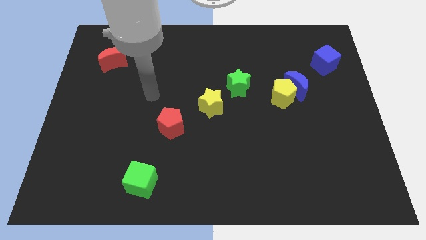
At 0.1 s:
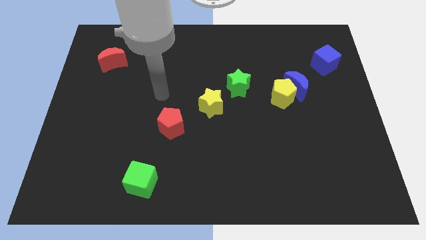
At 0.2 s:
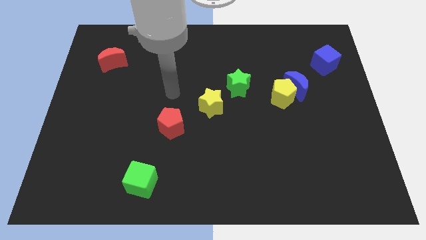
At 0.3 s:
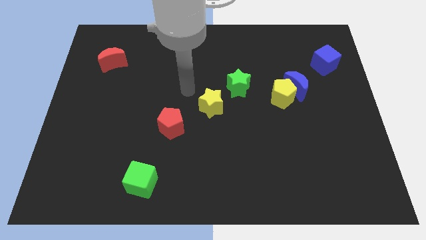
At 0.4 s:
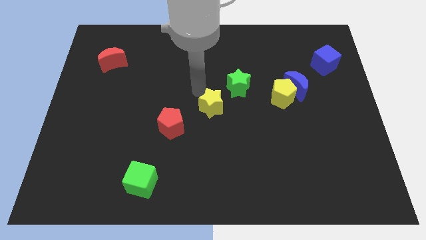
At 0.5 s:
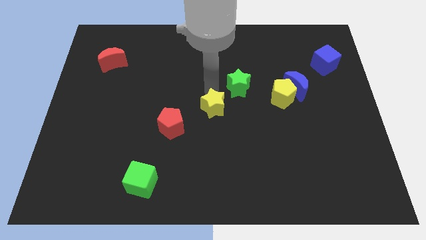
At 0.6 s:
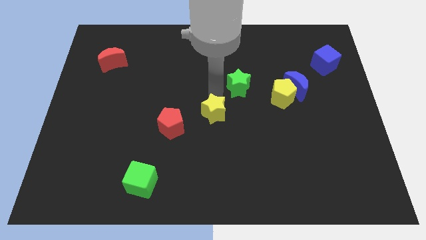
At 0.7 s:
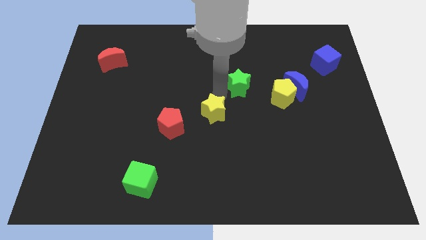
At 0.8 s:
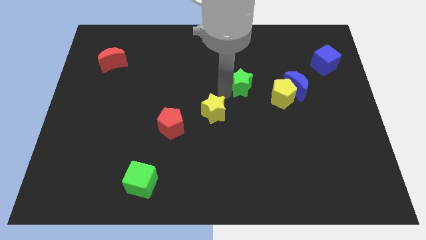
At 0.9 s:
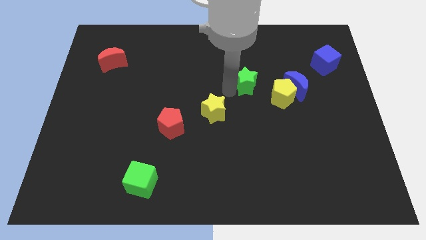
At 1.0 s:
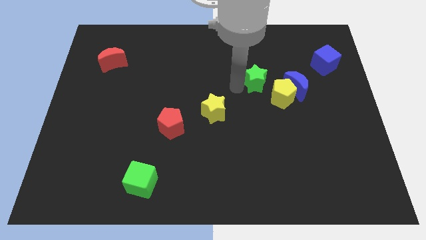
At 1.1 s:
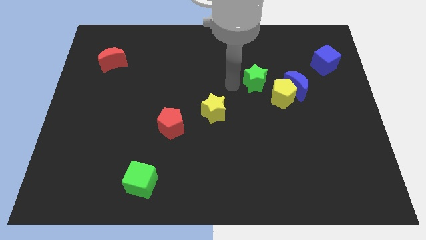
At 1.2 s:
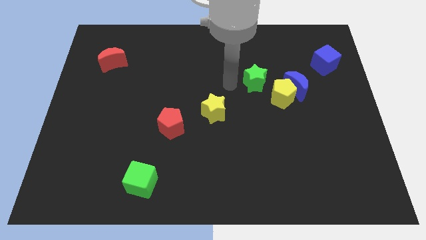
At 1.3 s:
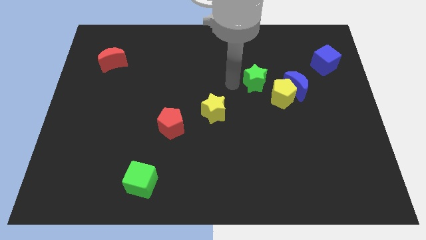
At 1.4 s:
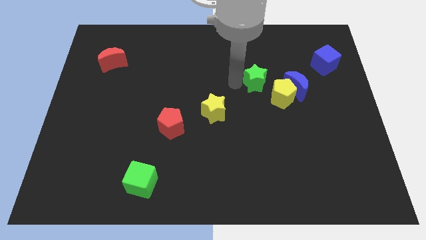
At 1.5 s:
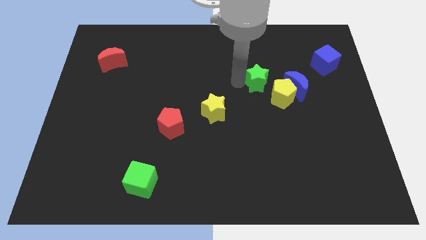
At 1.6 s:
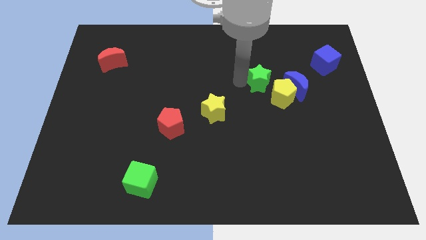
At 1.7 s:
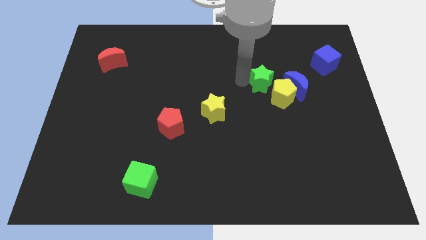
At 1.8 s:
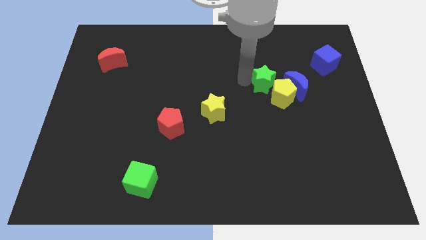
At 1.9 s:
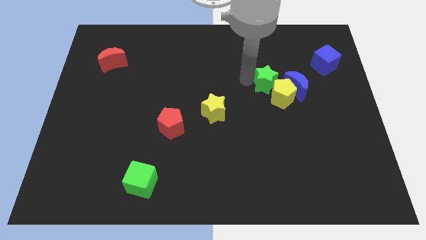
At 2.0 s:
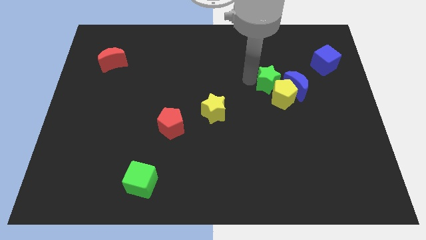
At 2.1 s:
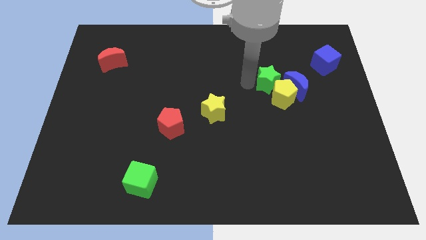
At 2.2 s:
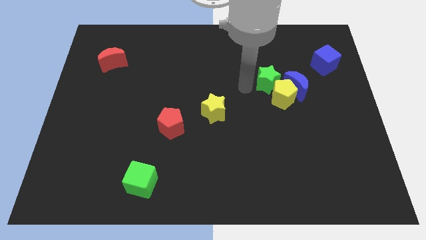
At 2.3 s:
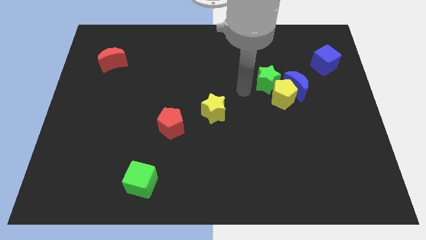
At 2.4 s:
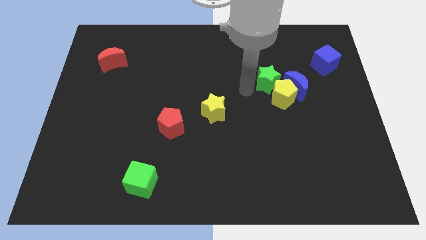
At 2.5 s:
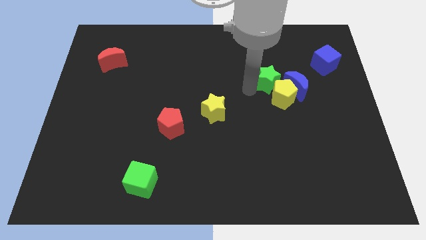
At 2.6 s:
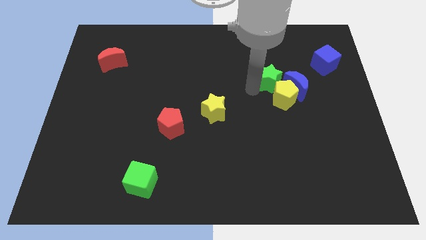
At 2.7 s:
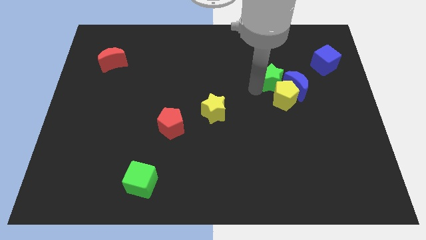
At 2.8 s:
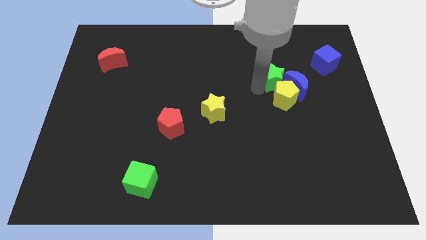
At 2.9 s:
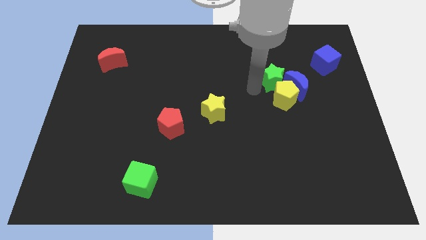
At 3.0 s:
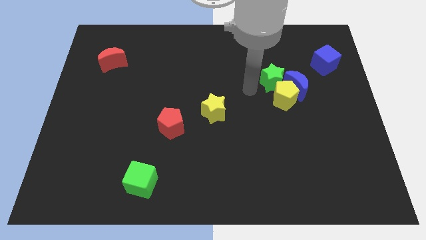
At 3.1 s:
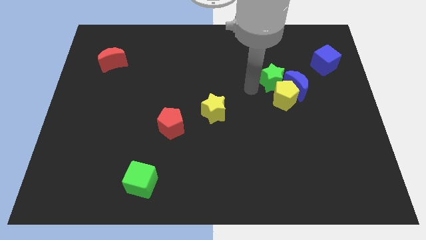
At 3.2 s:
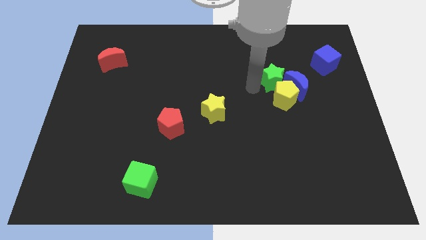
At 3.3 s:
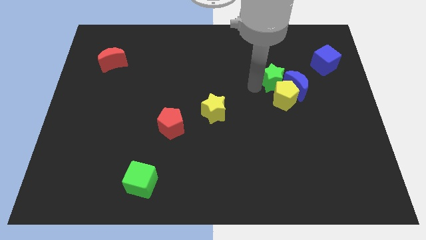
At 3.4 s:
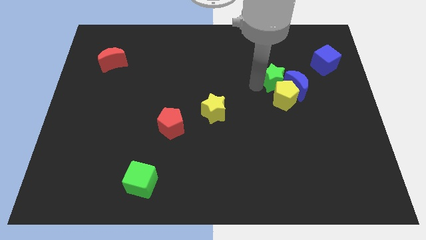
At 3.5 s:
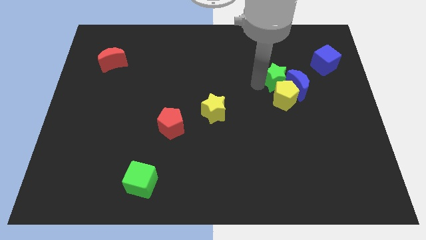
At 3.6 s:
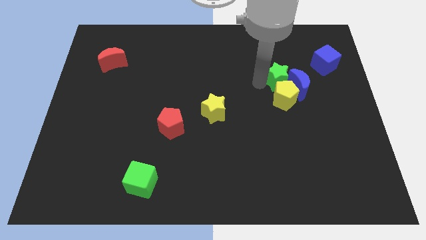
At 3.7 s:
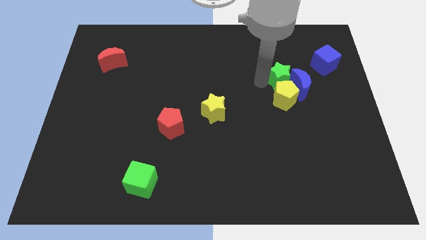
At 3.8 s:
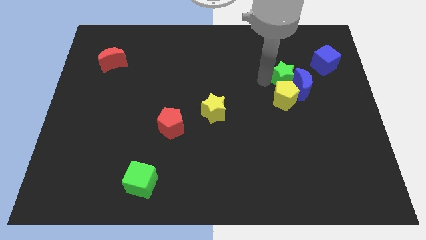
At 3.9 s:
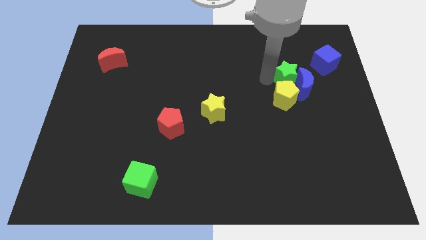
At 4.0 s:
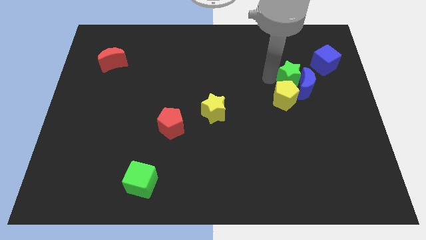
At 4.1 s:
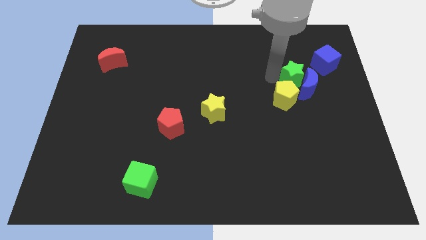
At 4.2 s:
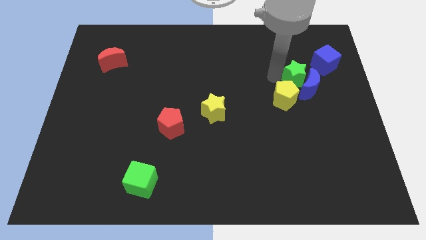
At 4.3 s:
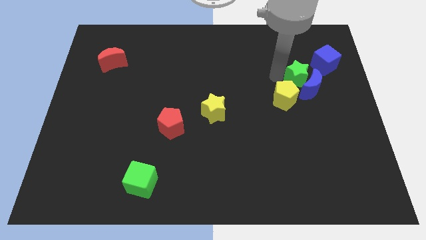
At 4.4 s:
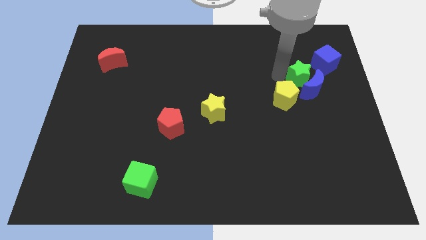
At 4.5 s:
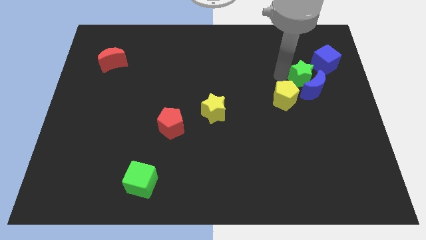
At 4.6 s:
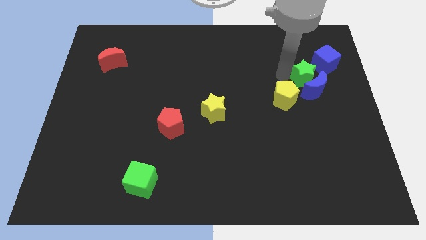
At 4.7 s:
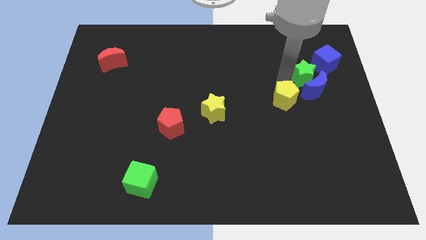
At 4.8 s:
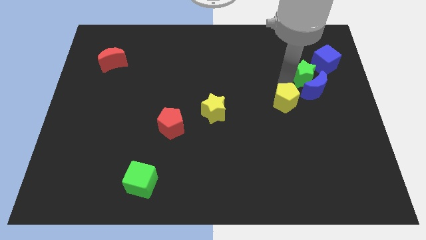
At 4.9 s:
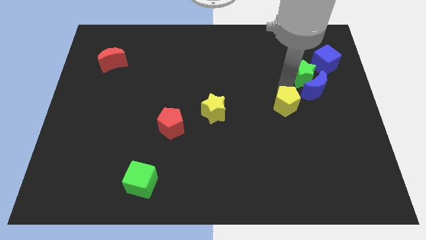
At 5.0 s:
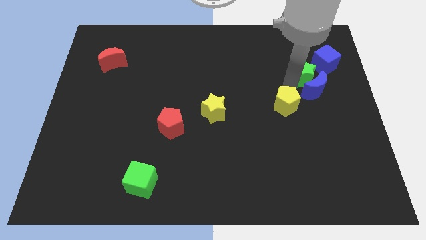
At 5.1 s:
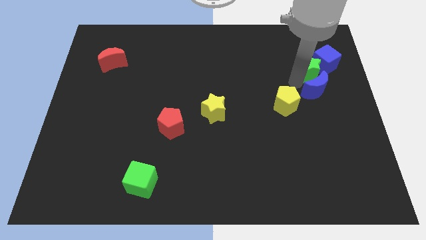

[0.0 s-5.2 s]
push the green star to the blue cube

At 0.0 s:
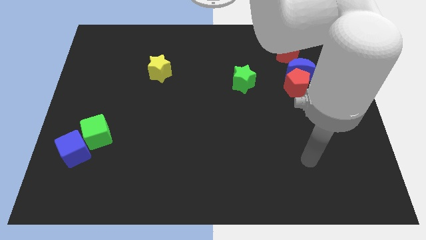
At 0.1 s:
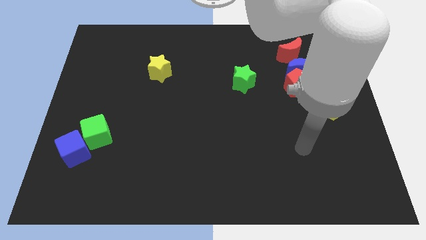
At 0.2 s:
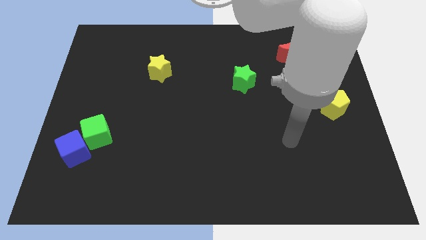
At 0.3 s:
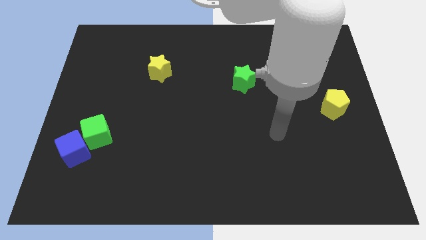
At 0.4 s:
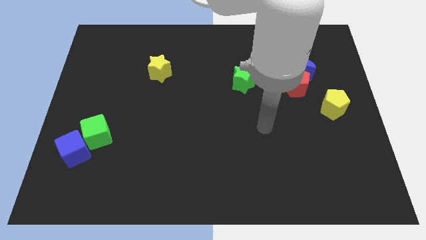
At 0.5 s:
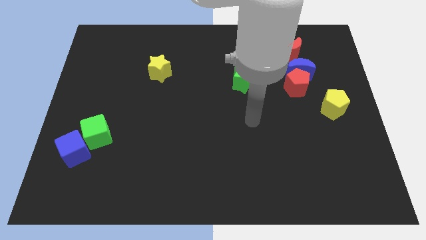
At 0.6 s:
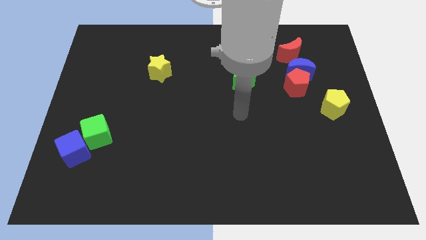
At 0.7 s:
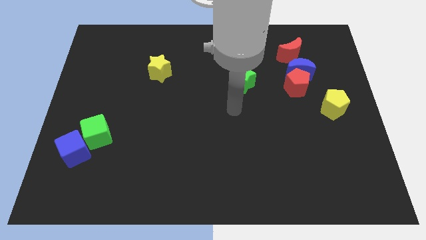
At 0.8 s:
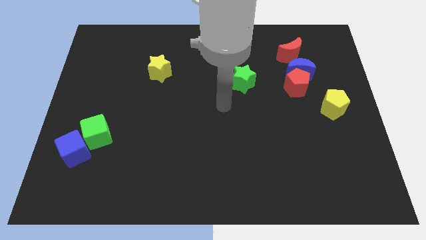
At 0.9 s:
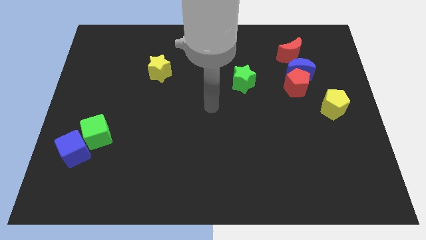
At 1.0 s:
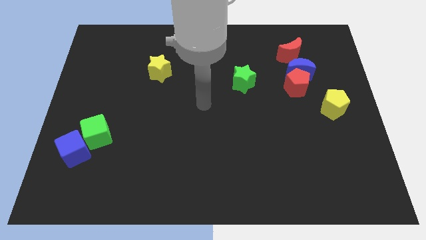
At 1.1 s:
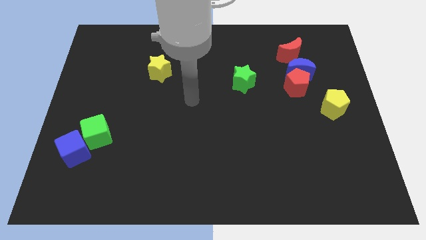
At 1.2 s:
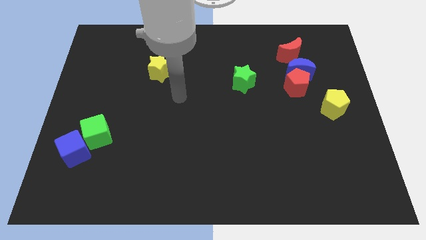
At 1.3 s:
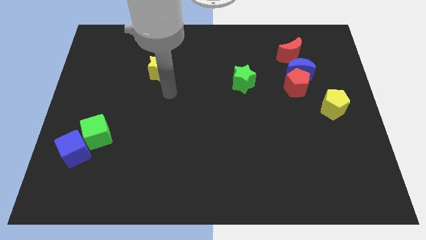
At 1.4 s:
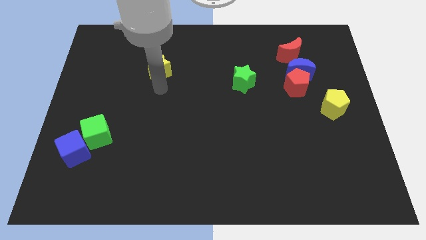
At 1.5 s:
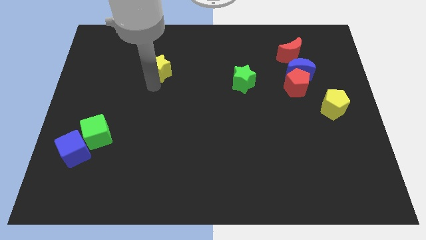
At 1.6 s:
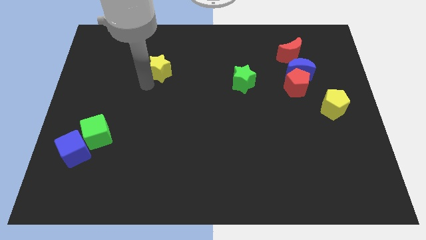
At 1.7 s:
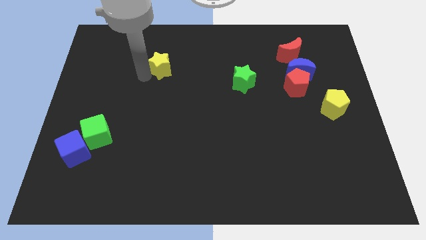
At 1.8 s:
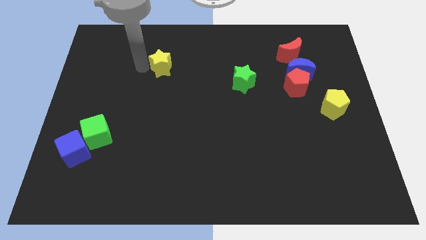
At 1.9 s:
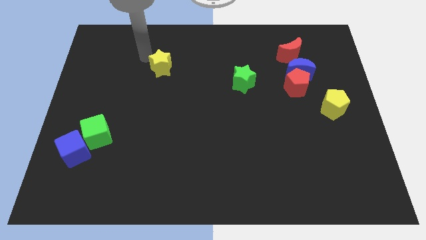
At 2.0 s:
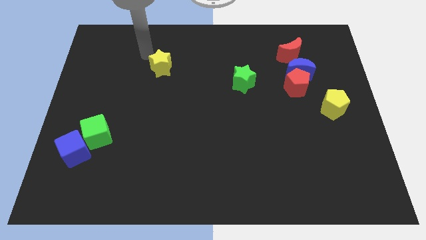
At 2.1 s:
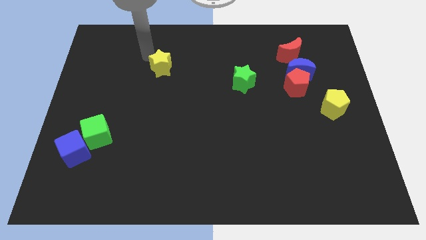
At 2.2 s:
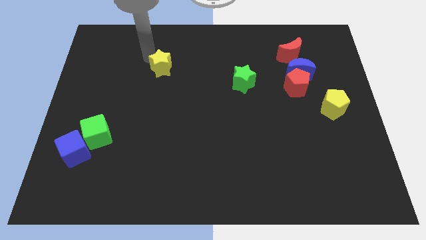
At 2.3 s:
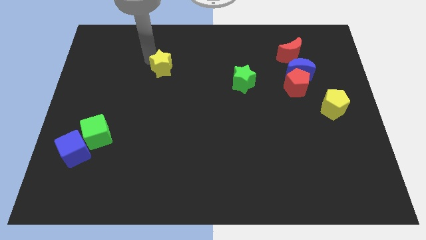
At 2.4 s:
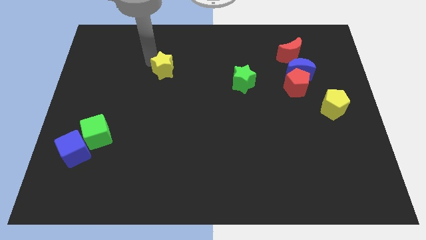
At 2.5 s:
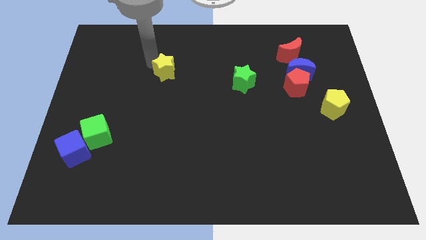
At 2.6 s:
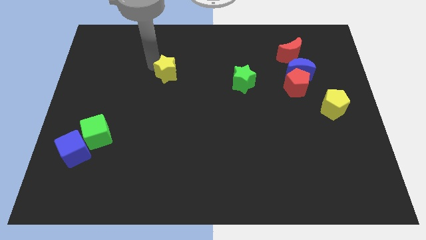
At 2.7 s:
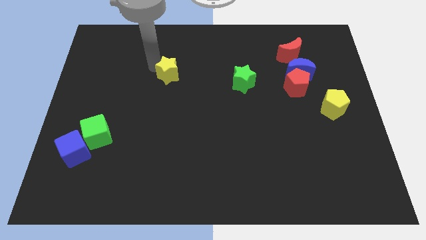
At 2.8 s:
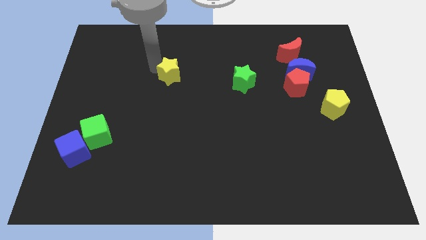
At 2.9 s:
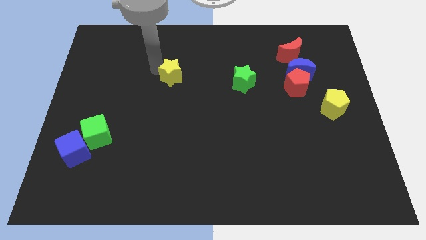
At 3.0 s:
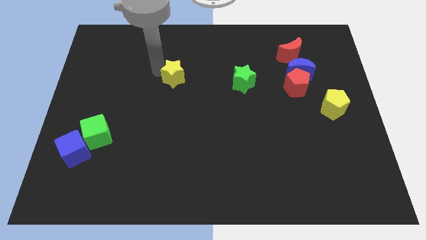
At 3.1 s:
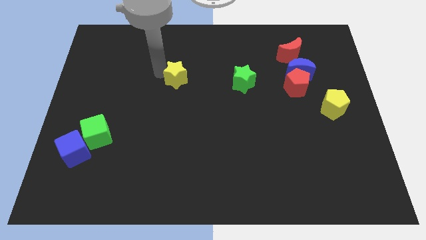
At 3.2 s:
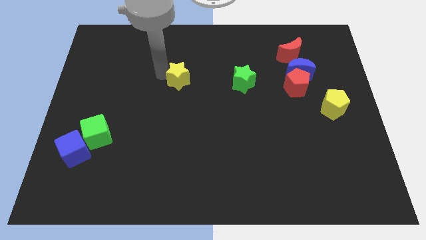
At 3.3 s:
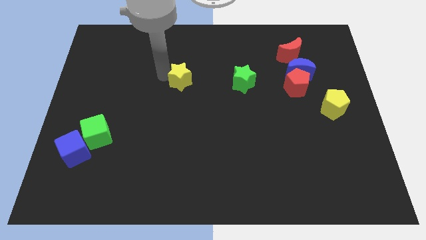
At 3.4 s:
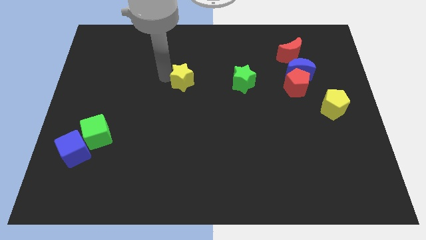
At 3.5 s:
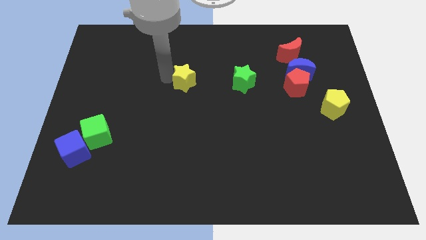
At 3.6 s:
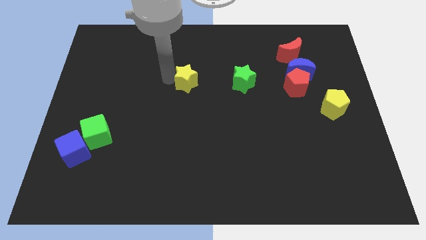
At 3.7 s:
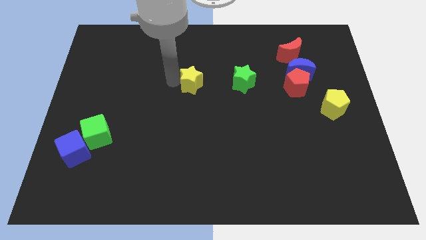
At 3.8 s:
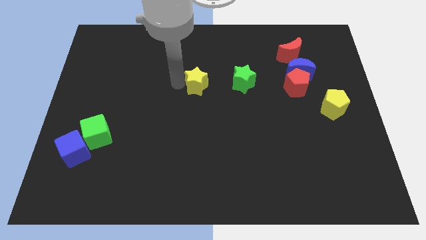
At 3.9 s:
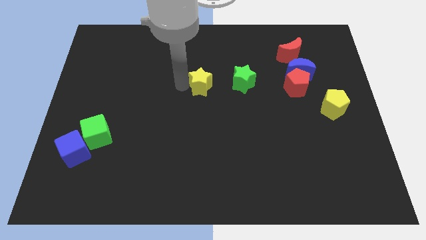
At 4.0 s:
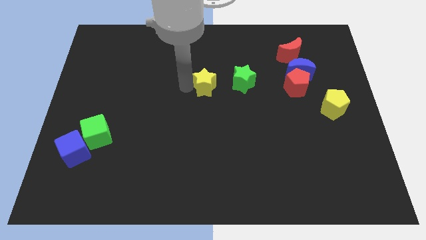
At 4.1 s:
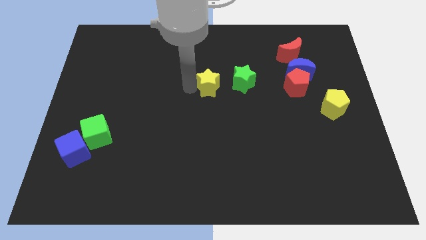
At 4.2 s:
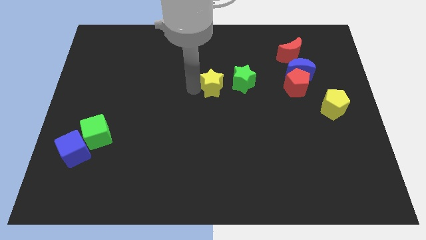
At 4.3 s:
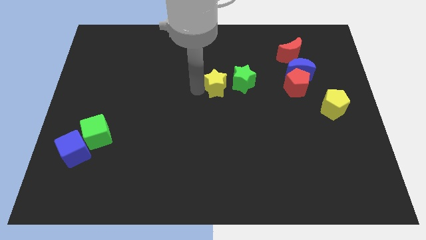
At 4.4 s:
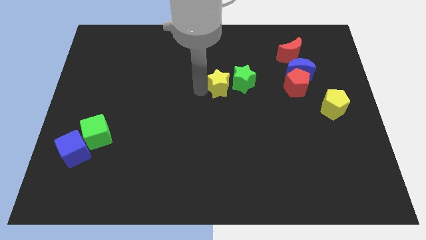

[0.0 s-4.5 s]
put the yellow star next to the green star
